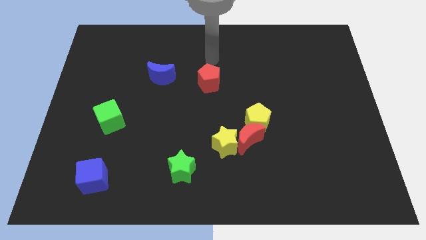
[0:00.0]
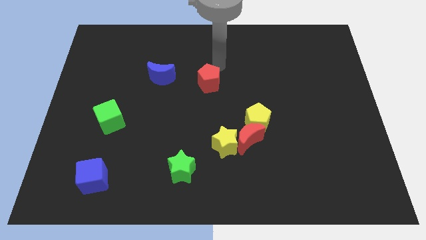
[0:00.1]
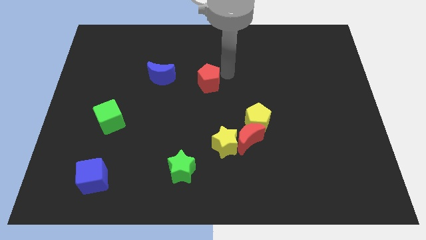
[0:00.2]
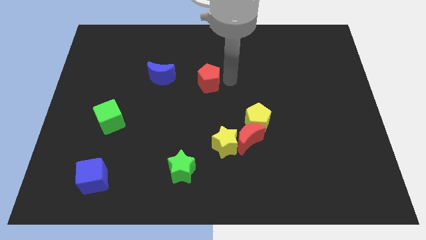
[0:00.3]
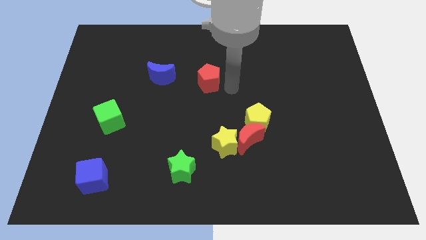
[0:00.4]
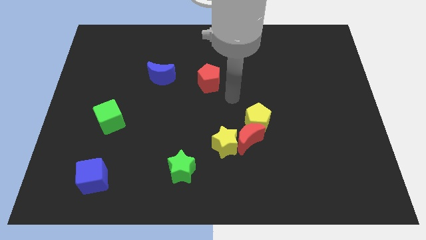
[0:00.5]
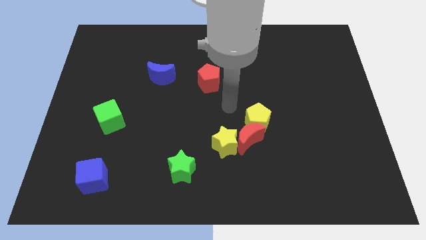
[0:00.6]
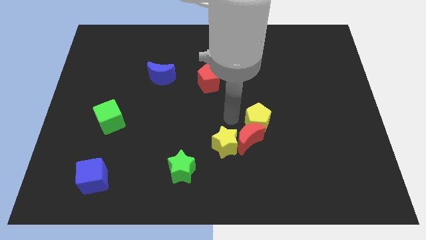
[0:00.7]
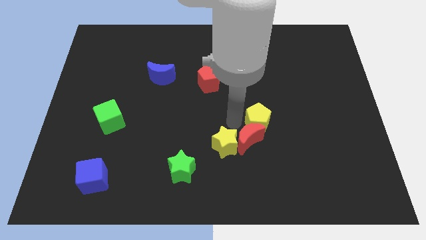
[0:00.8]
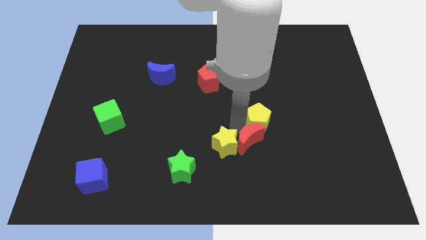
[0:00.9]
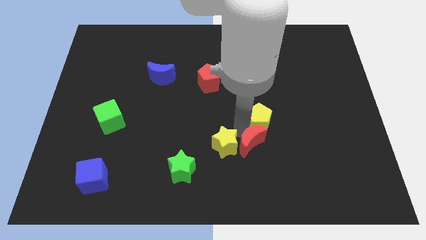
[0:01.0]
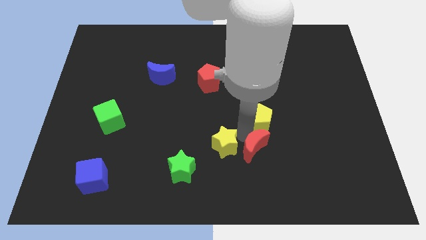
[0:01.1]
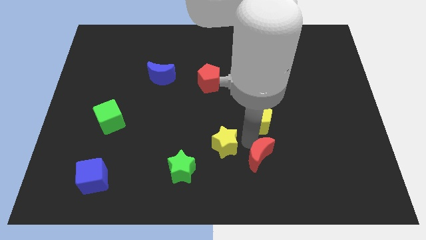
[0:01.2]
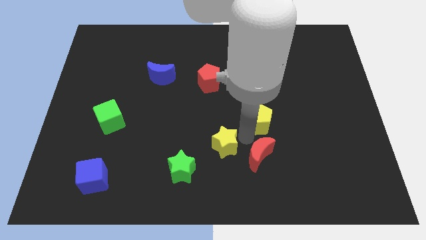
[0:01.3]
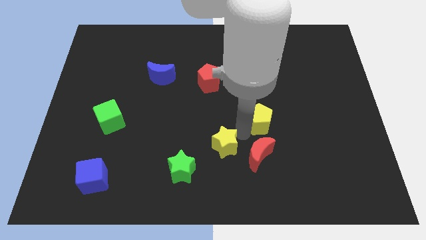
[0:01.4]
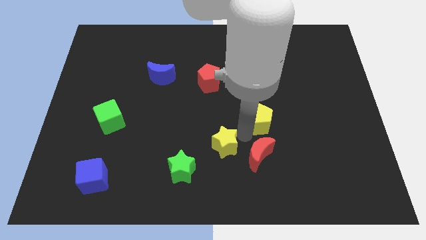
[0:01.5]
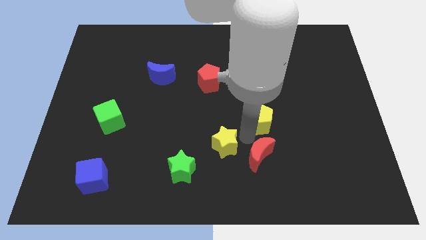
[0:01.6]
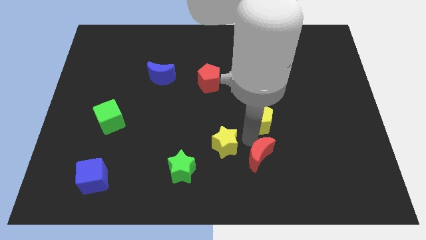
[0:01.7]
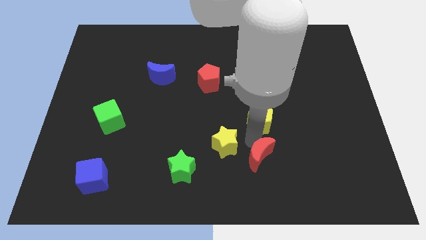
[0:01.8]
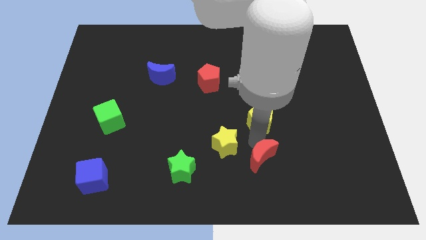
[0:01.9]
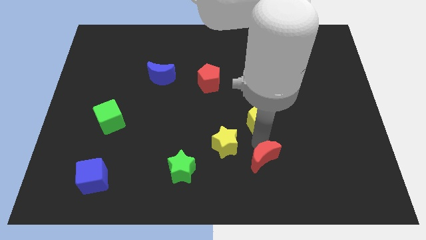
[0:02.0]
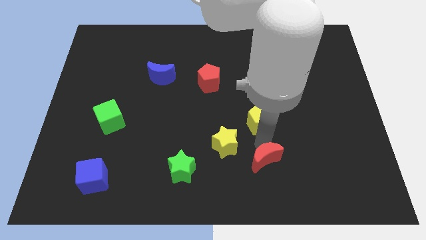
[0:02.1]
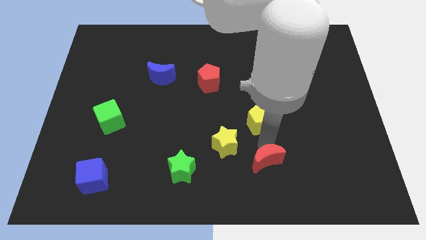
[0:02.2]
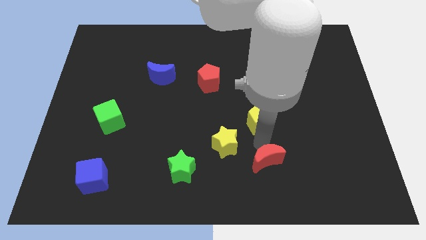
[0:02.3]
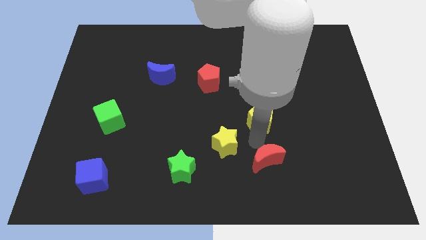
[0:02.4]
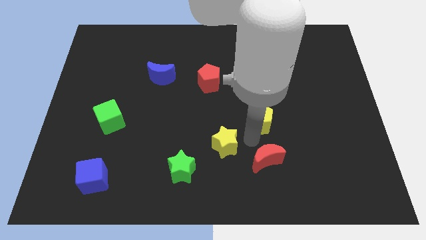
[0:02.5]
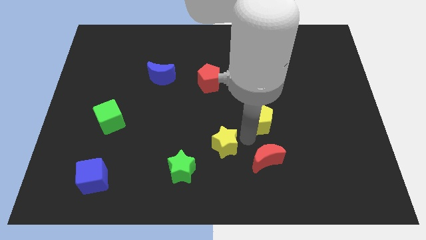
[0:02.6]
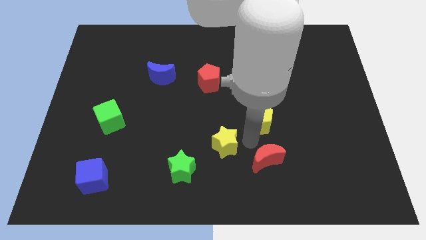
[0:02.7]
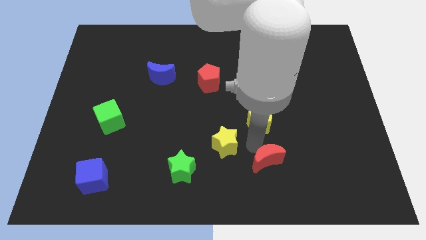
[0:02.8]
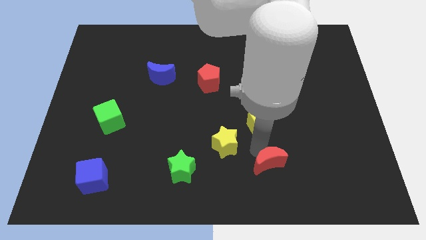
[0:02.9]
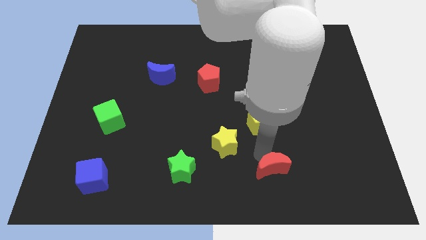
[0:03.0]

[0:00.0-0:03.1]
separate the red moon from the yellow pentagon and yellow star

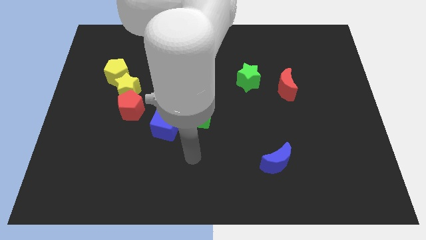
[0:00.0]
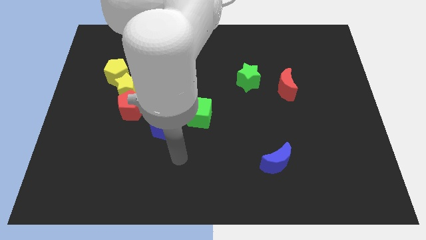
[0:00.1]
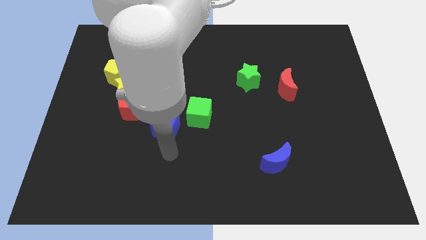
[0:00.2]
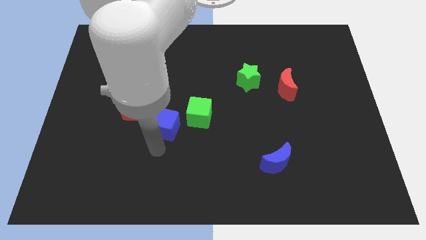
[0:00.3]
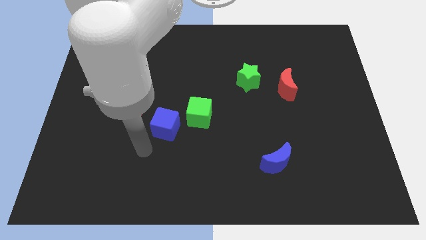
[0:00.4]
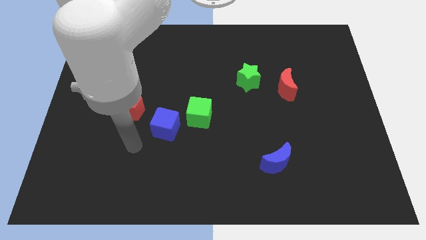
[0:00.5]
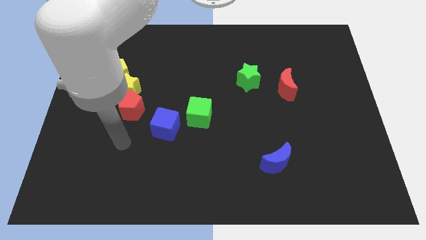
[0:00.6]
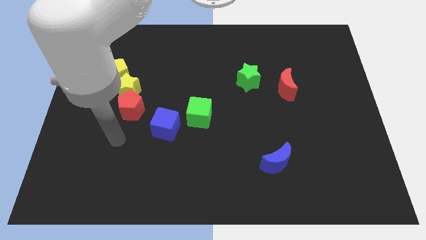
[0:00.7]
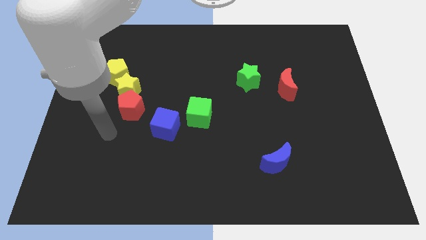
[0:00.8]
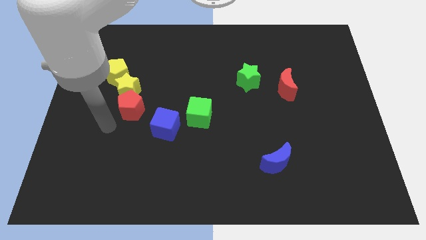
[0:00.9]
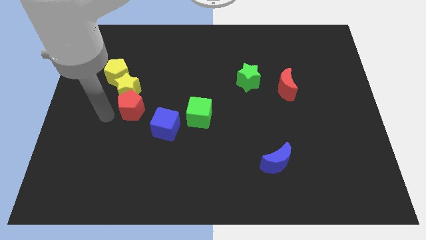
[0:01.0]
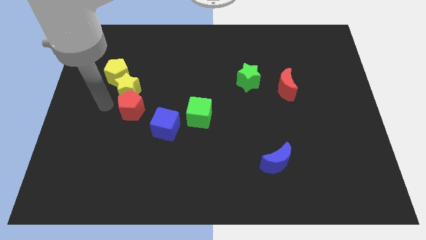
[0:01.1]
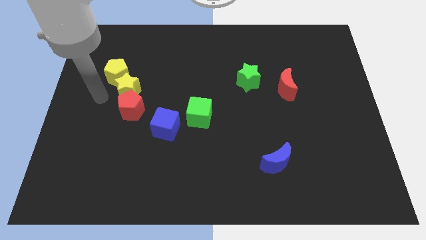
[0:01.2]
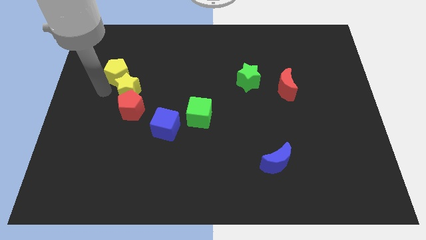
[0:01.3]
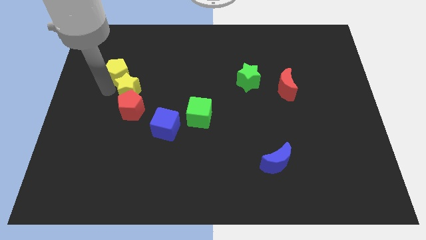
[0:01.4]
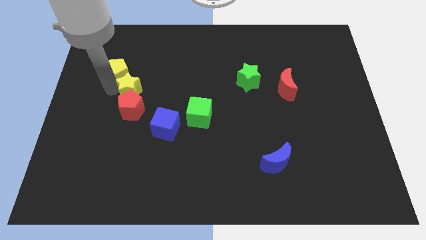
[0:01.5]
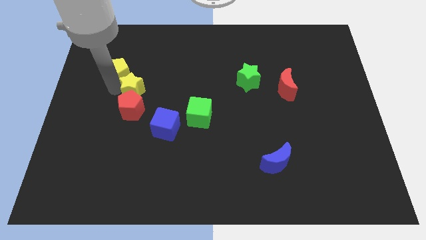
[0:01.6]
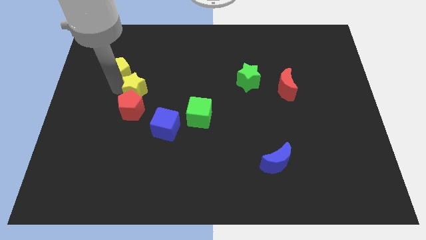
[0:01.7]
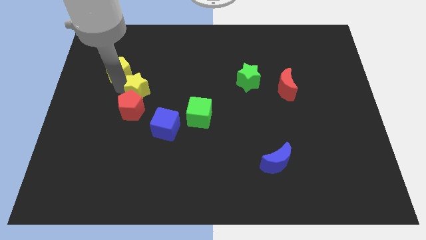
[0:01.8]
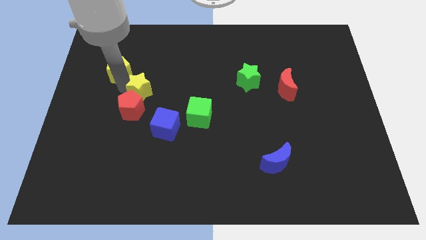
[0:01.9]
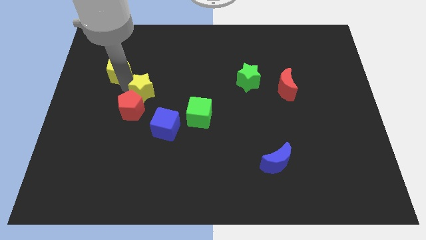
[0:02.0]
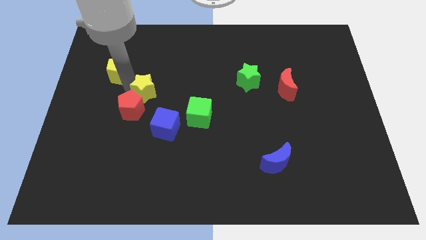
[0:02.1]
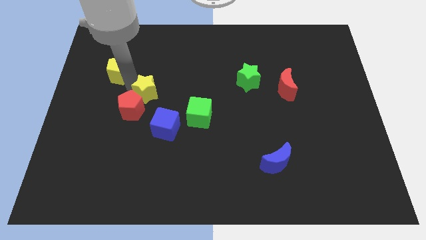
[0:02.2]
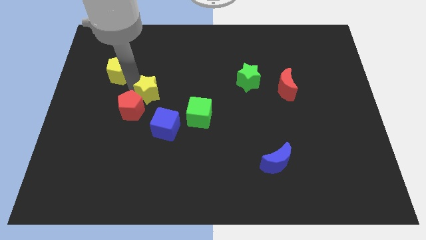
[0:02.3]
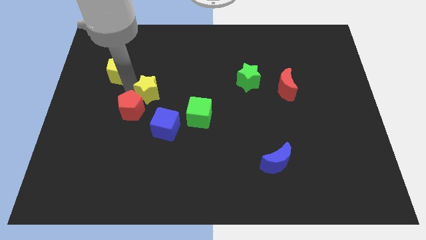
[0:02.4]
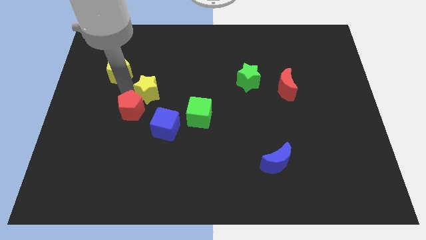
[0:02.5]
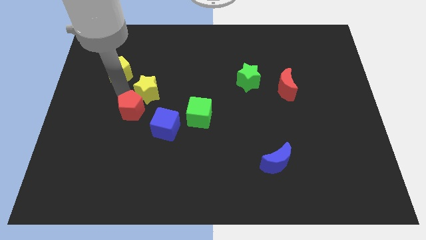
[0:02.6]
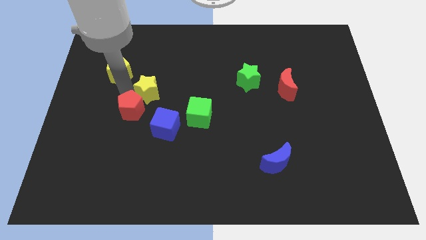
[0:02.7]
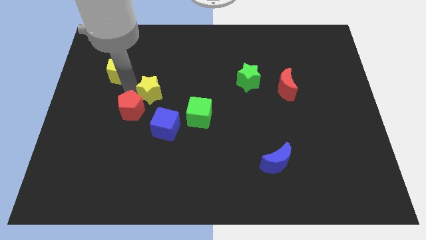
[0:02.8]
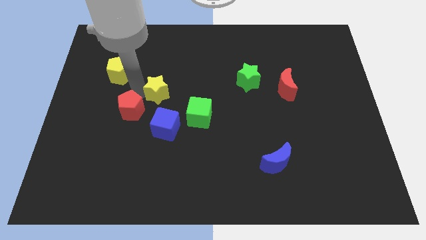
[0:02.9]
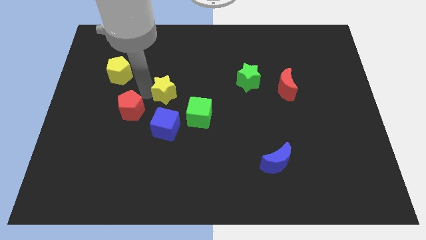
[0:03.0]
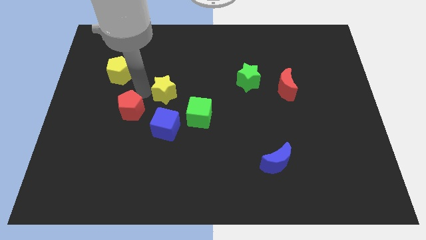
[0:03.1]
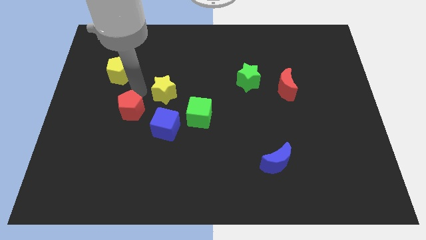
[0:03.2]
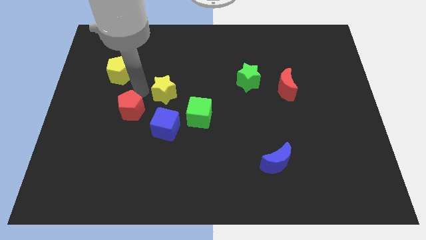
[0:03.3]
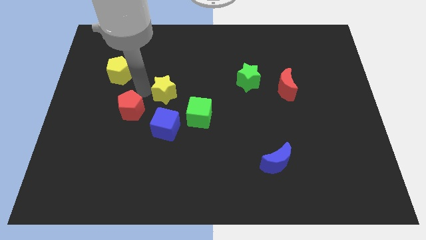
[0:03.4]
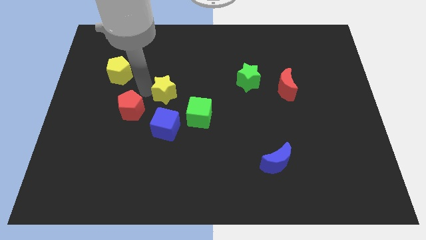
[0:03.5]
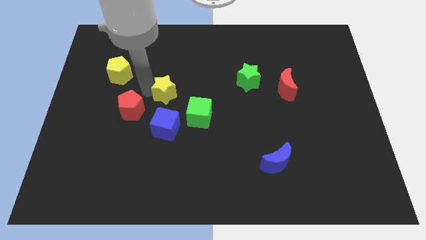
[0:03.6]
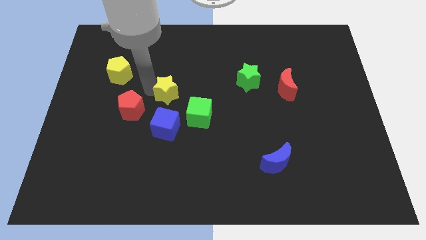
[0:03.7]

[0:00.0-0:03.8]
move the yellow star away from the red pentagon and yellow pentagon

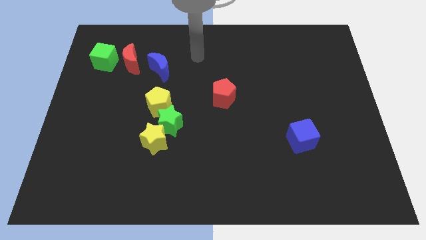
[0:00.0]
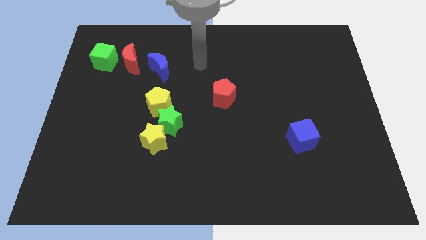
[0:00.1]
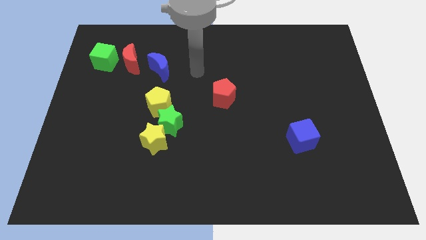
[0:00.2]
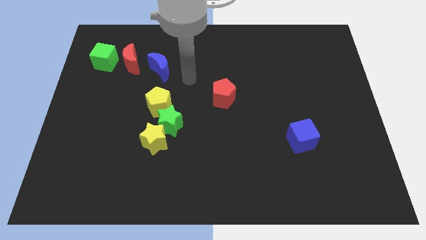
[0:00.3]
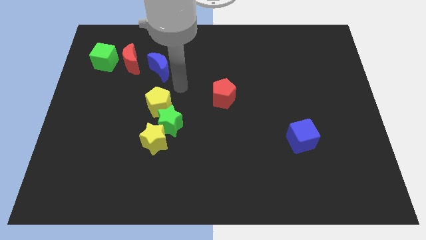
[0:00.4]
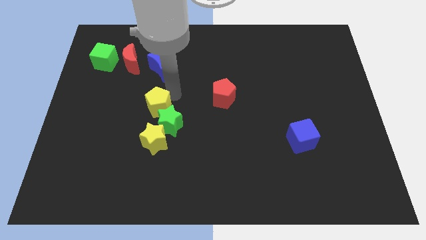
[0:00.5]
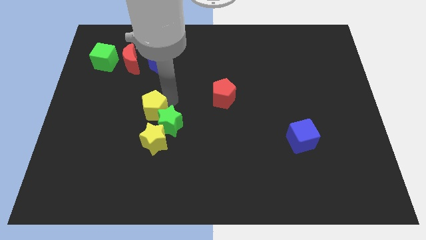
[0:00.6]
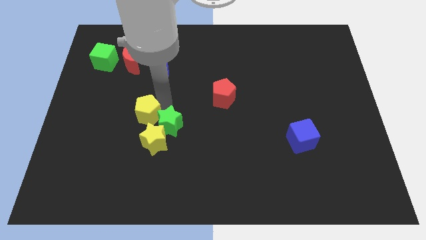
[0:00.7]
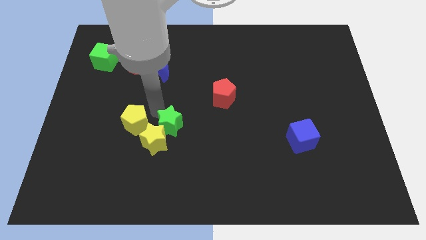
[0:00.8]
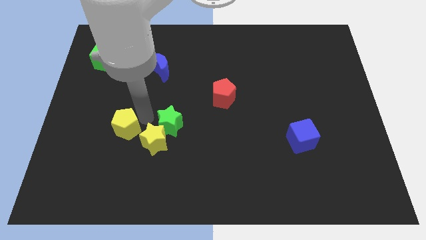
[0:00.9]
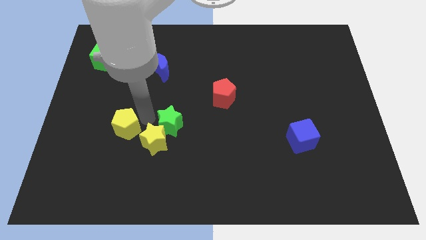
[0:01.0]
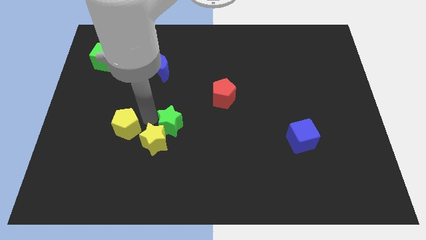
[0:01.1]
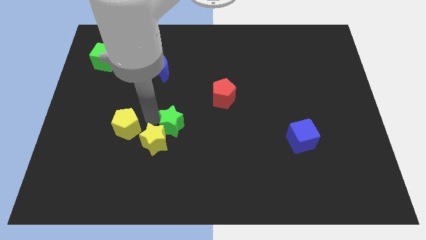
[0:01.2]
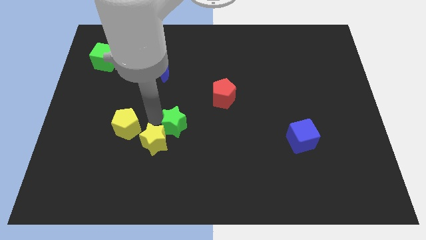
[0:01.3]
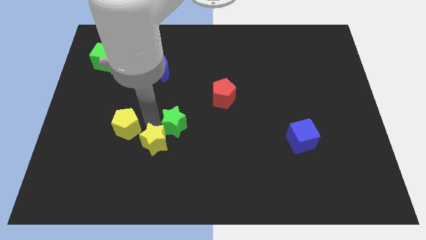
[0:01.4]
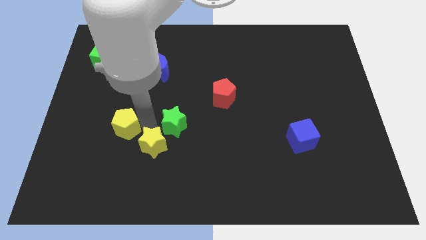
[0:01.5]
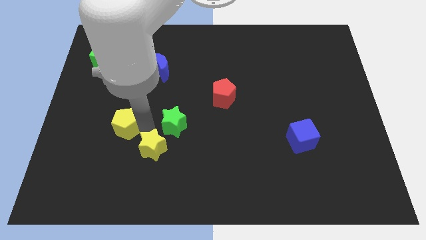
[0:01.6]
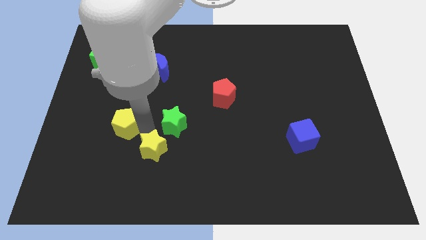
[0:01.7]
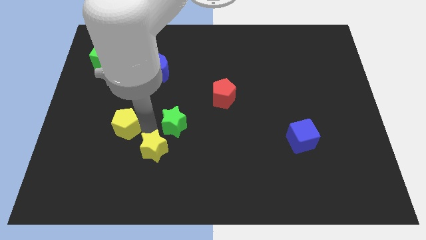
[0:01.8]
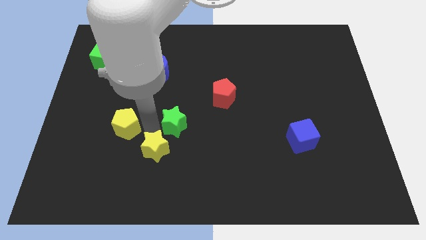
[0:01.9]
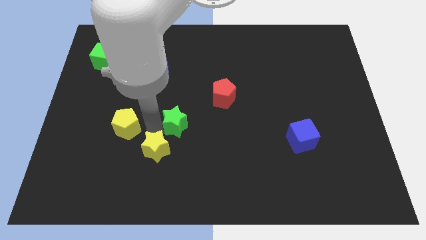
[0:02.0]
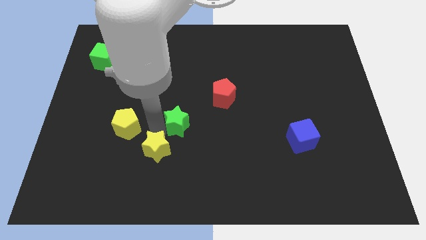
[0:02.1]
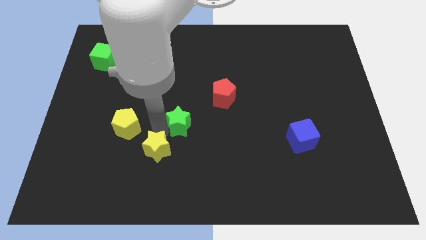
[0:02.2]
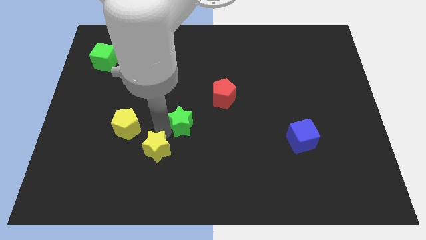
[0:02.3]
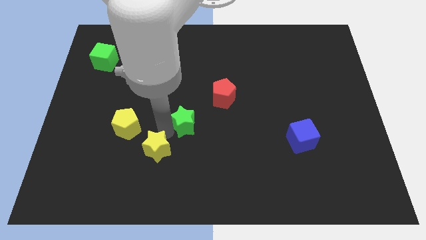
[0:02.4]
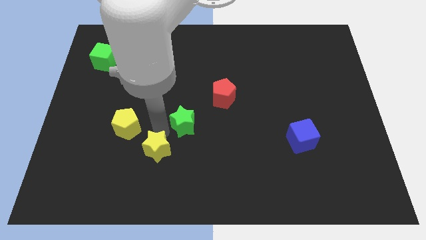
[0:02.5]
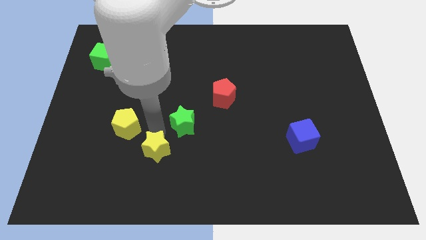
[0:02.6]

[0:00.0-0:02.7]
pull the green star apart from the yellow star and yellow pentagon
